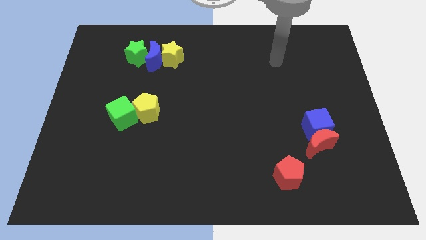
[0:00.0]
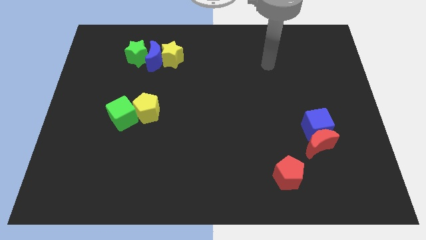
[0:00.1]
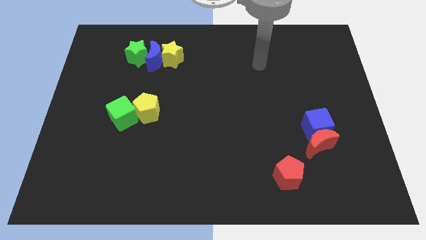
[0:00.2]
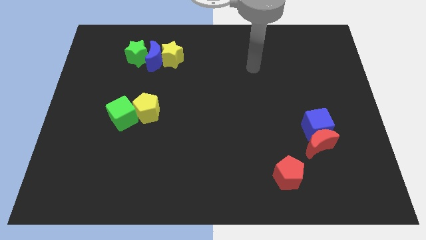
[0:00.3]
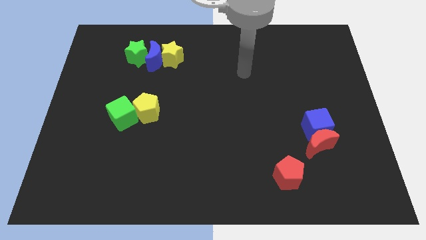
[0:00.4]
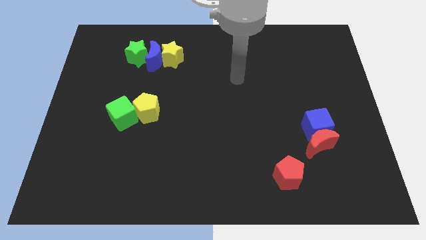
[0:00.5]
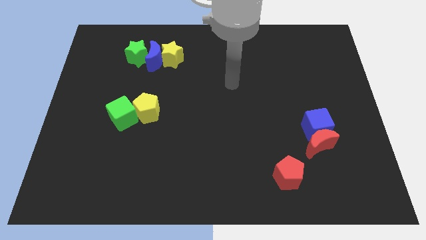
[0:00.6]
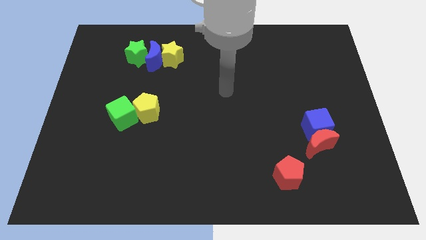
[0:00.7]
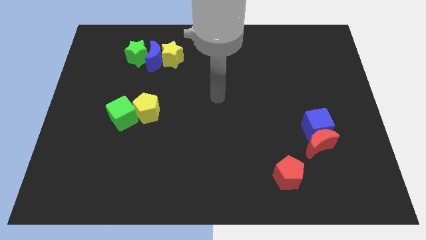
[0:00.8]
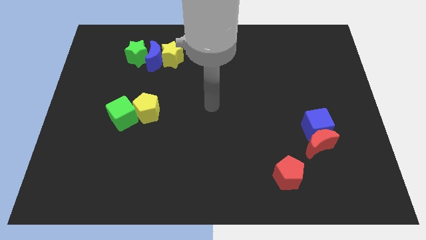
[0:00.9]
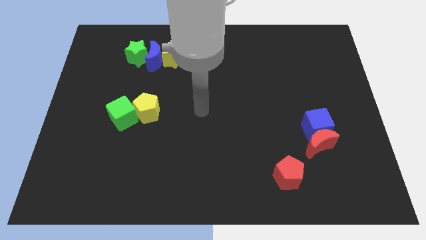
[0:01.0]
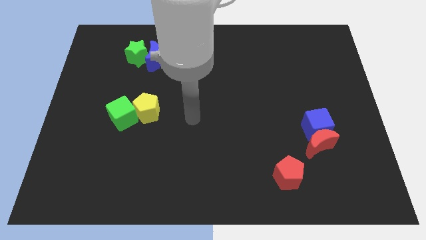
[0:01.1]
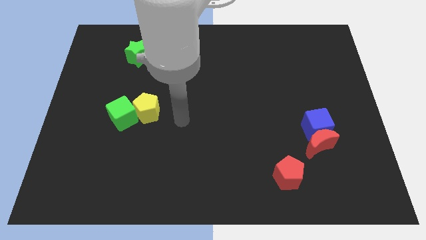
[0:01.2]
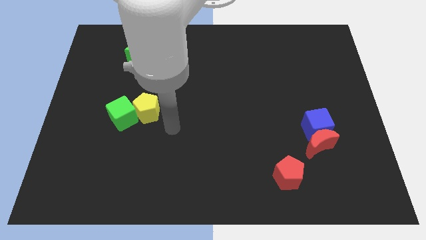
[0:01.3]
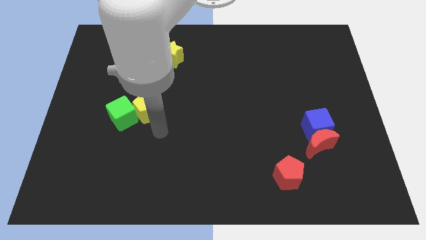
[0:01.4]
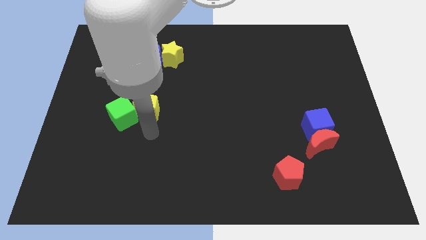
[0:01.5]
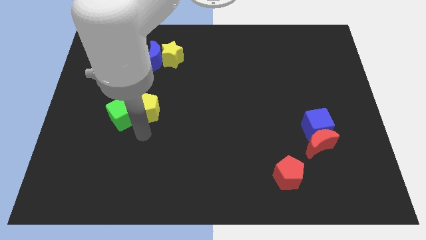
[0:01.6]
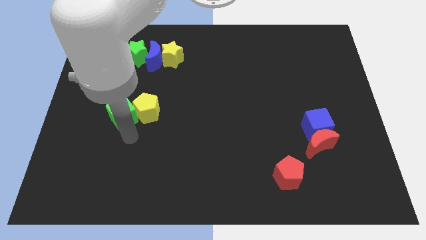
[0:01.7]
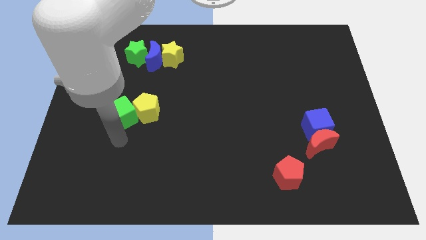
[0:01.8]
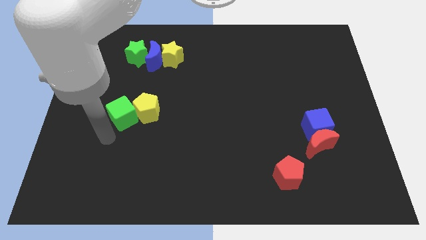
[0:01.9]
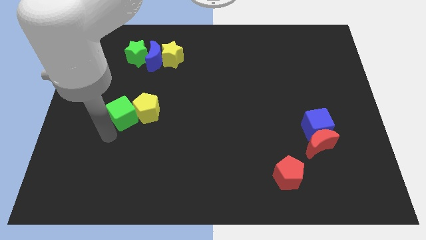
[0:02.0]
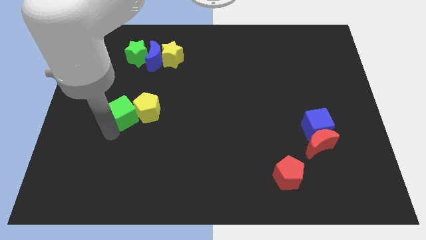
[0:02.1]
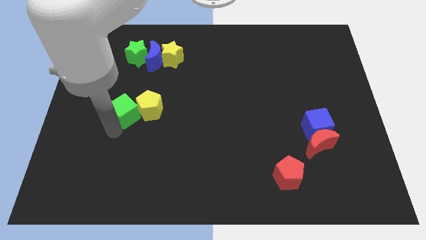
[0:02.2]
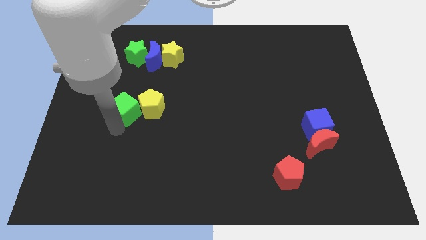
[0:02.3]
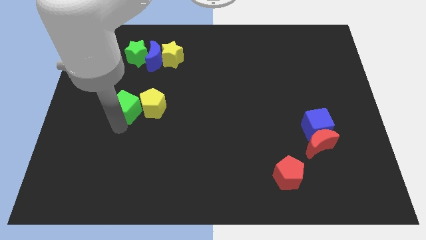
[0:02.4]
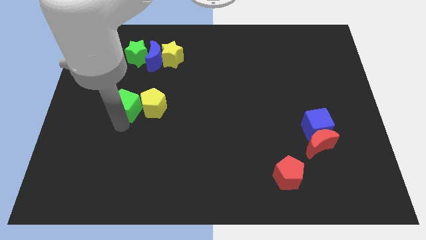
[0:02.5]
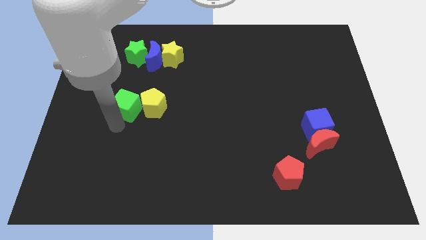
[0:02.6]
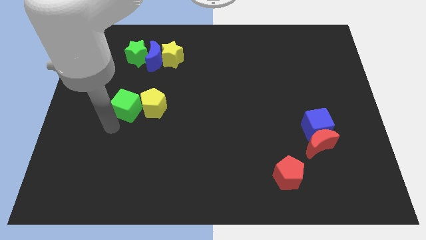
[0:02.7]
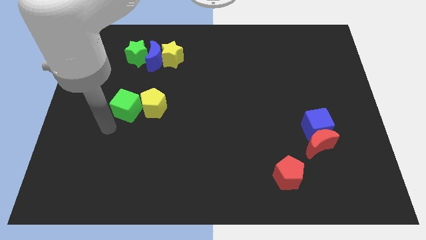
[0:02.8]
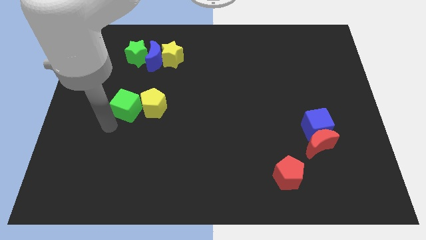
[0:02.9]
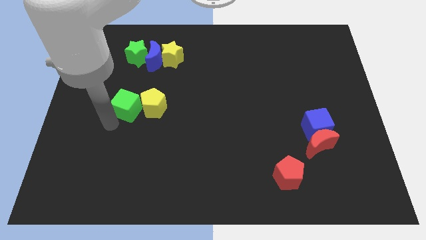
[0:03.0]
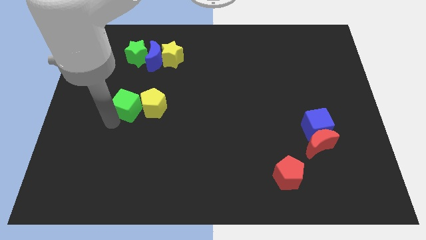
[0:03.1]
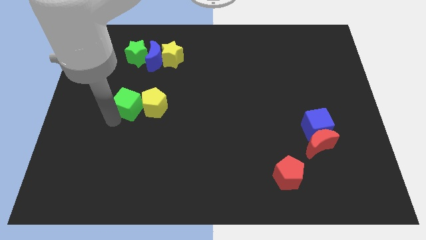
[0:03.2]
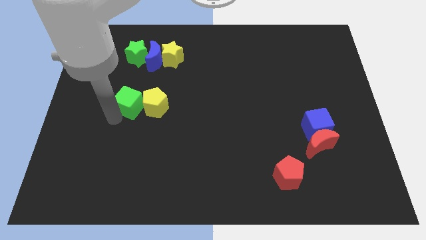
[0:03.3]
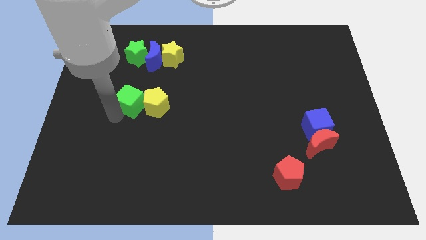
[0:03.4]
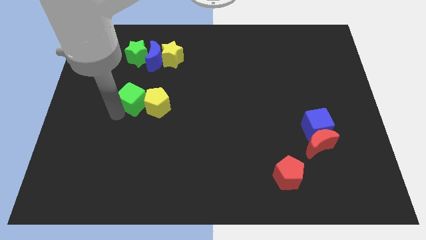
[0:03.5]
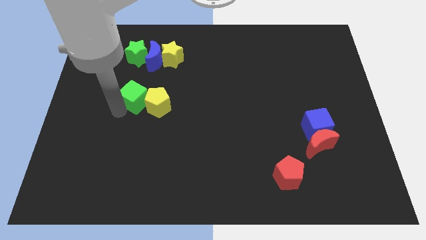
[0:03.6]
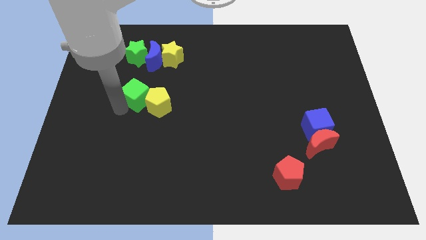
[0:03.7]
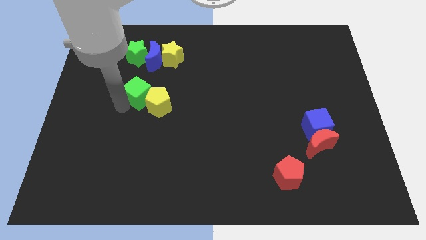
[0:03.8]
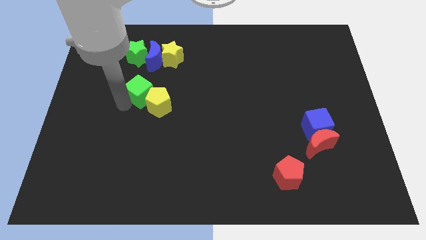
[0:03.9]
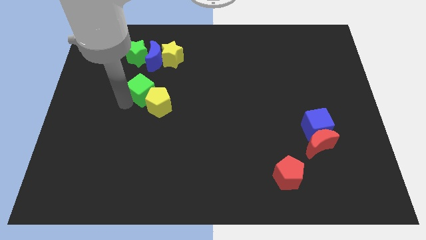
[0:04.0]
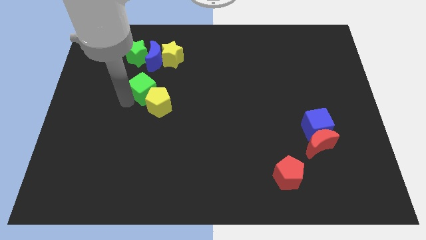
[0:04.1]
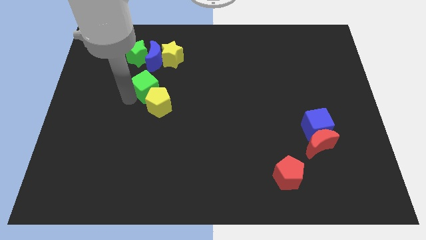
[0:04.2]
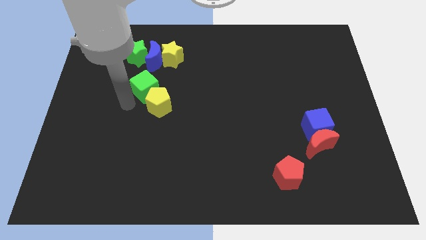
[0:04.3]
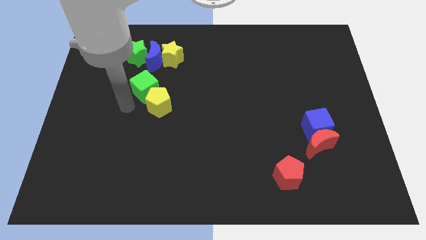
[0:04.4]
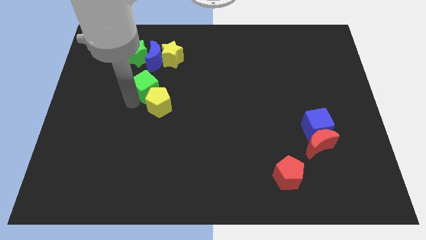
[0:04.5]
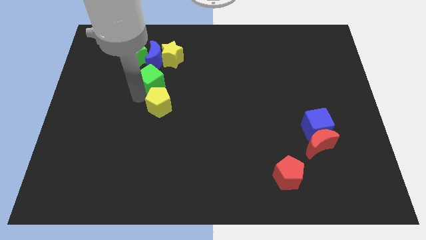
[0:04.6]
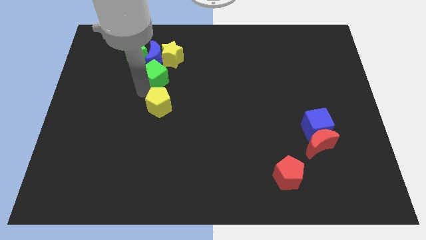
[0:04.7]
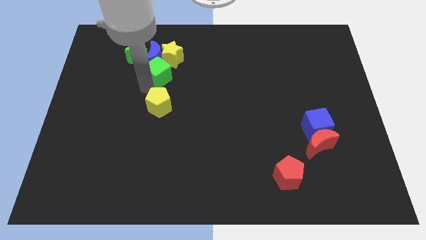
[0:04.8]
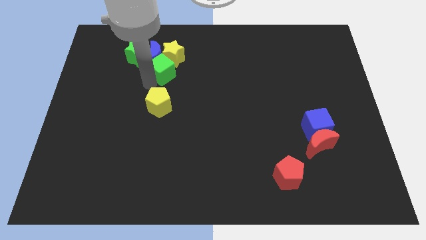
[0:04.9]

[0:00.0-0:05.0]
move the green cube next to the yellow star

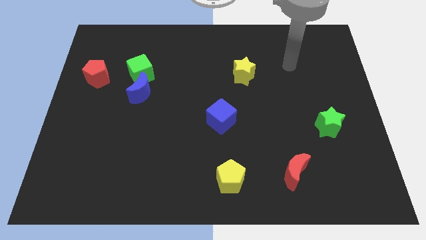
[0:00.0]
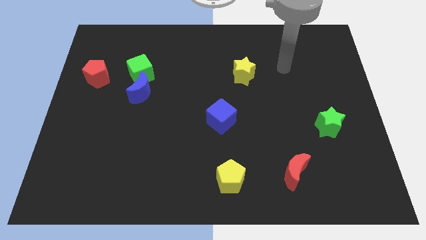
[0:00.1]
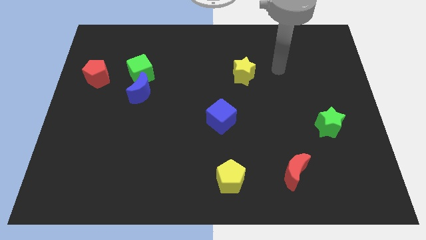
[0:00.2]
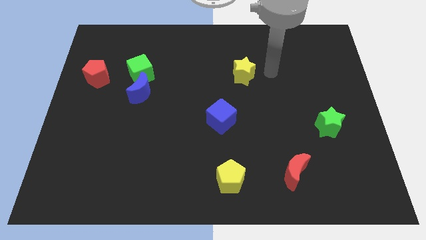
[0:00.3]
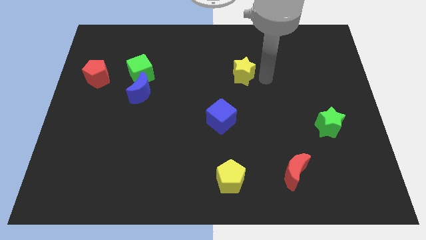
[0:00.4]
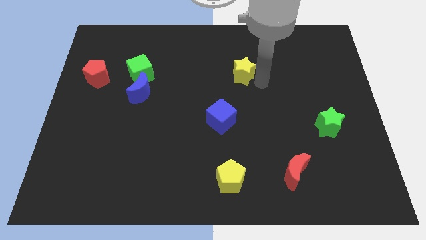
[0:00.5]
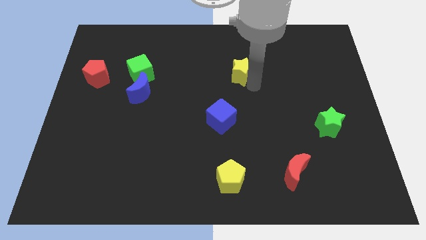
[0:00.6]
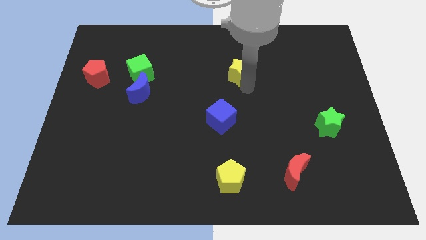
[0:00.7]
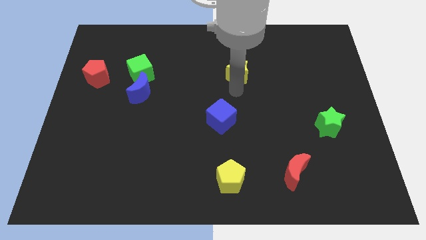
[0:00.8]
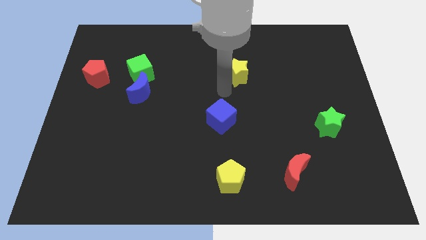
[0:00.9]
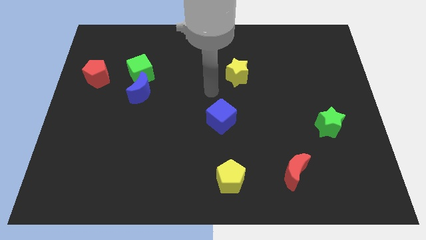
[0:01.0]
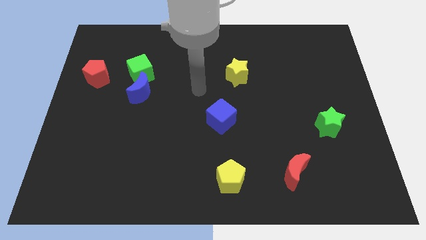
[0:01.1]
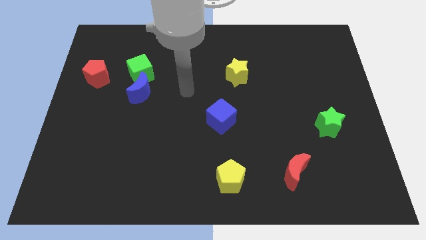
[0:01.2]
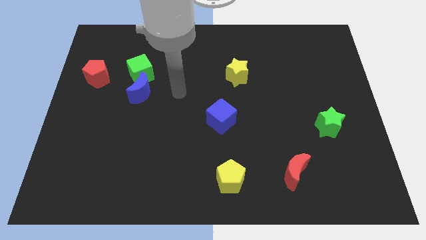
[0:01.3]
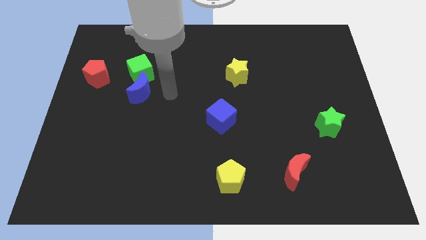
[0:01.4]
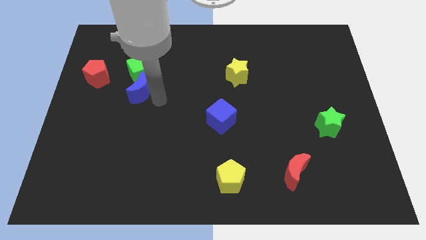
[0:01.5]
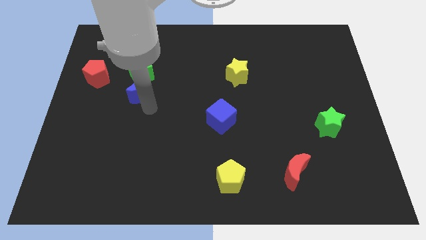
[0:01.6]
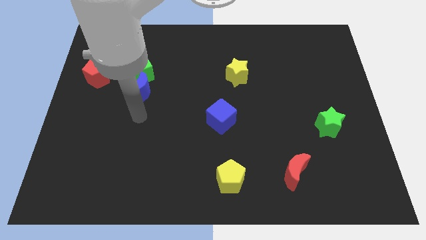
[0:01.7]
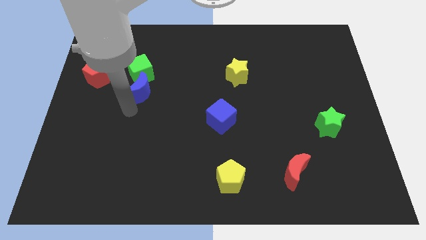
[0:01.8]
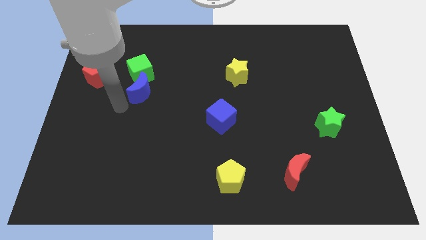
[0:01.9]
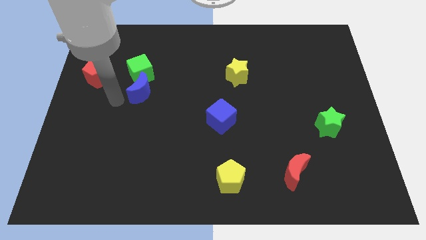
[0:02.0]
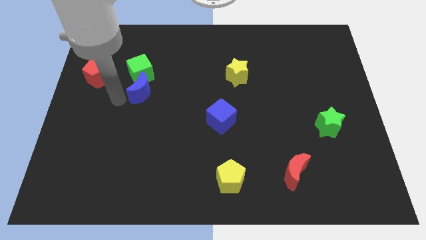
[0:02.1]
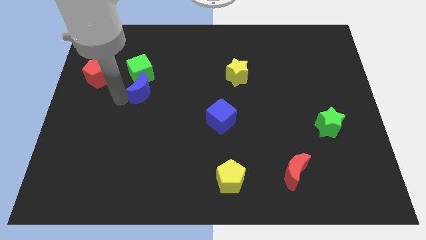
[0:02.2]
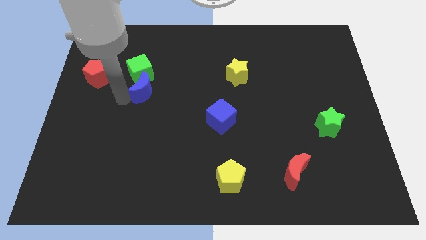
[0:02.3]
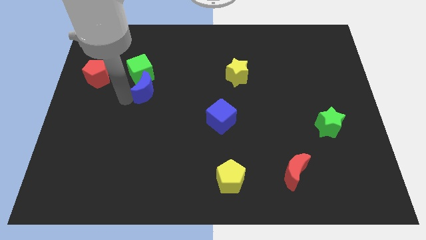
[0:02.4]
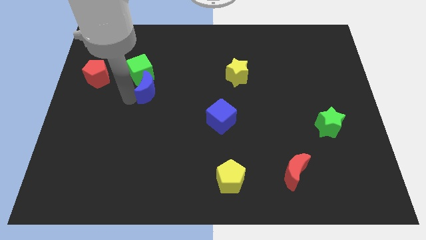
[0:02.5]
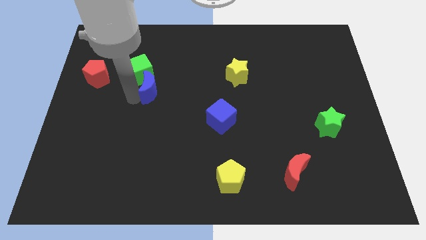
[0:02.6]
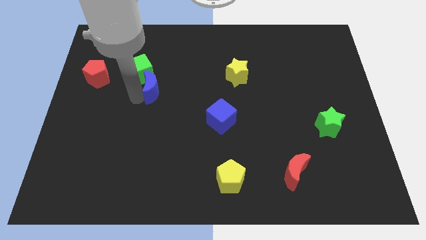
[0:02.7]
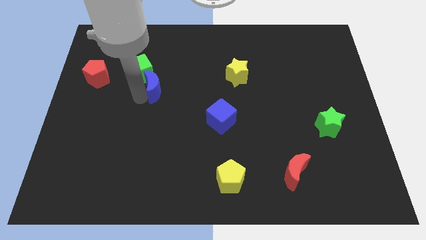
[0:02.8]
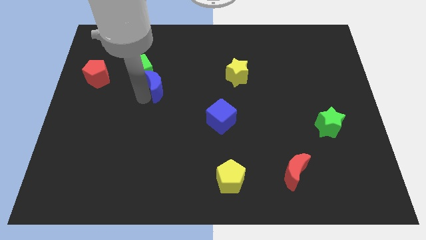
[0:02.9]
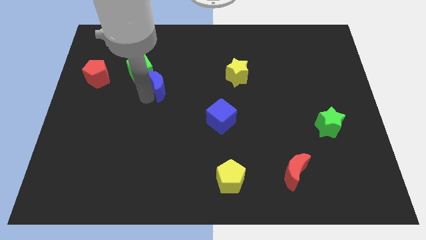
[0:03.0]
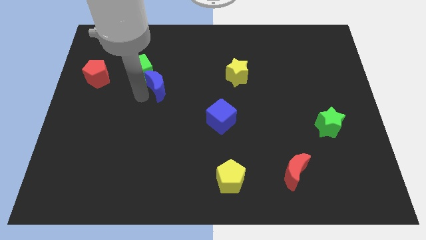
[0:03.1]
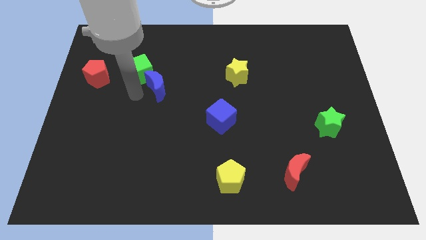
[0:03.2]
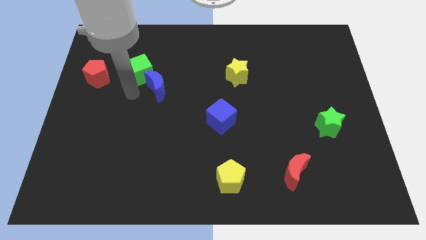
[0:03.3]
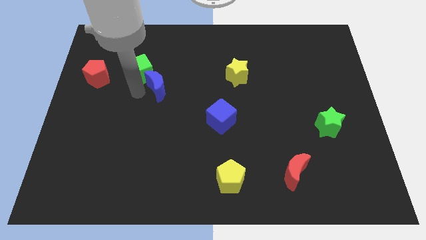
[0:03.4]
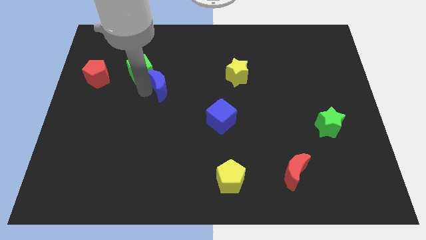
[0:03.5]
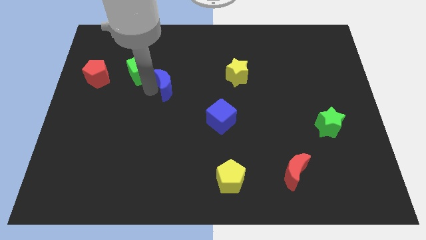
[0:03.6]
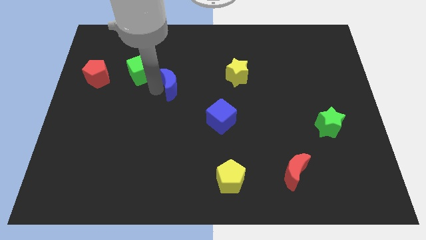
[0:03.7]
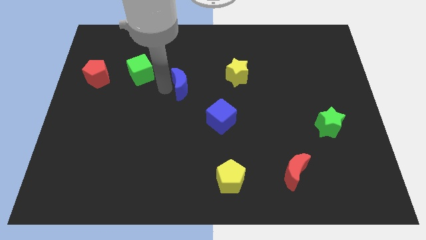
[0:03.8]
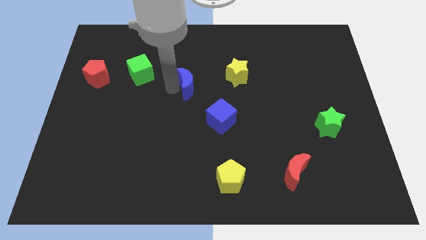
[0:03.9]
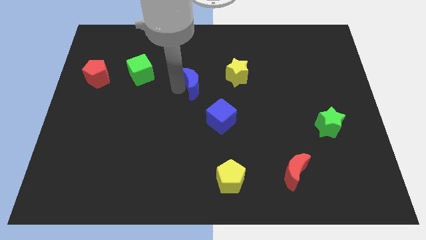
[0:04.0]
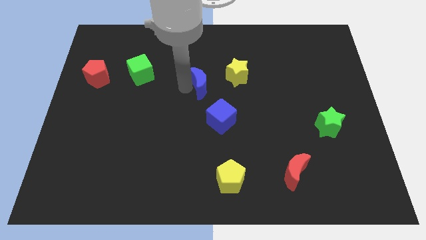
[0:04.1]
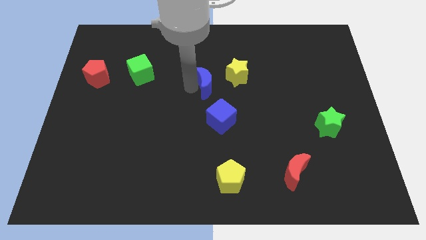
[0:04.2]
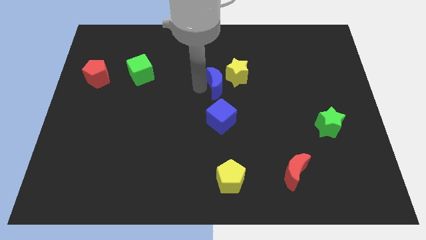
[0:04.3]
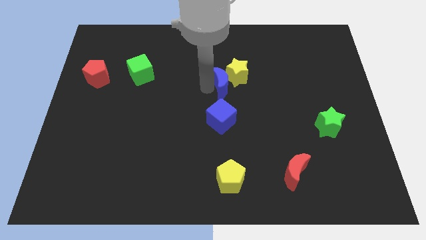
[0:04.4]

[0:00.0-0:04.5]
push the blue moon towards the yellow star
